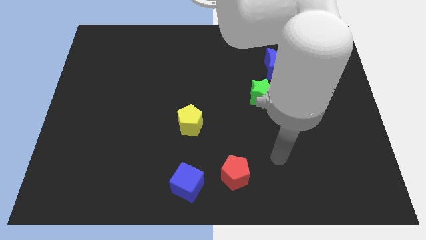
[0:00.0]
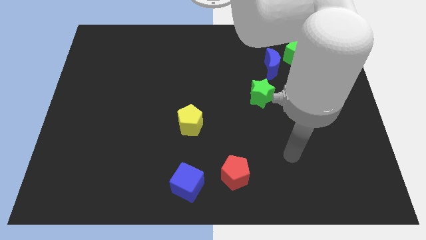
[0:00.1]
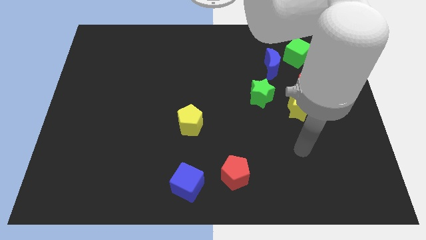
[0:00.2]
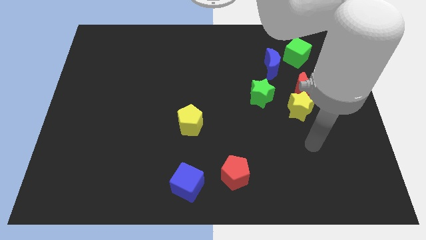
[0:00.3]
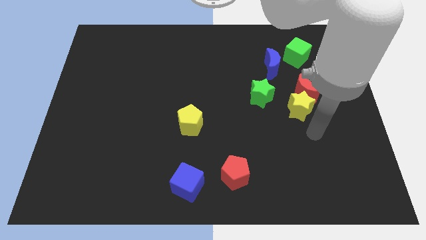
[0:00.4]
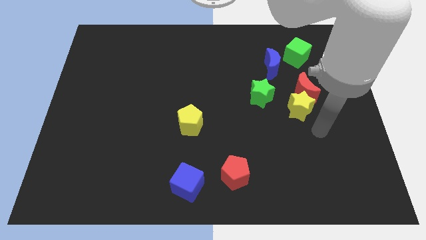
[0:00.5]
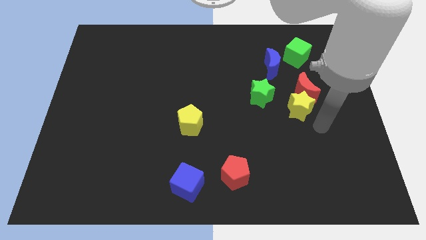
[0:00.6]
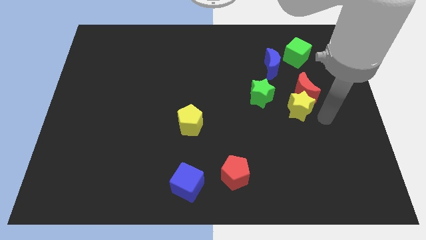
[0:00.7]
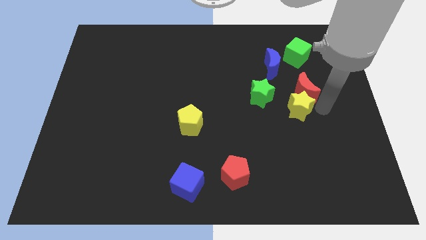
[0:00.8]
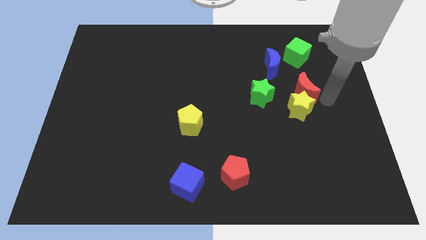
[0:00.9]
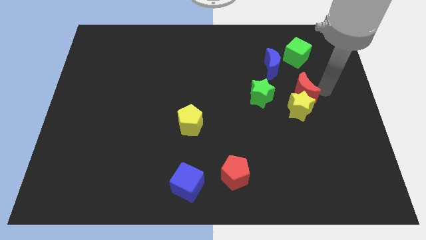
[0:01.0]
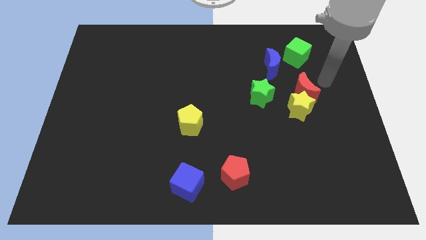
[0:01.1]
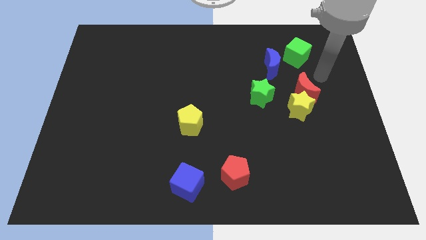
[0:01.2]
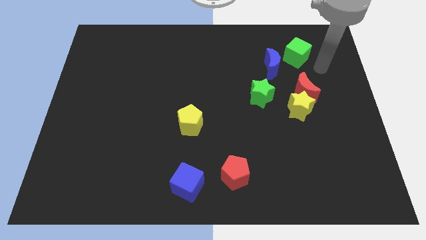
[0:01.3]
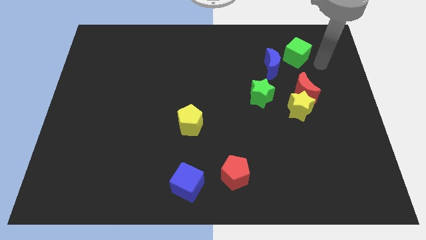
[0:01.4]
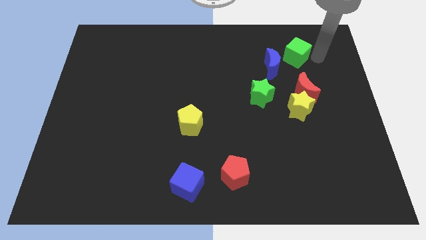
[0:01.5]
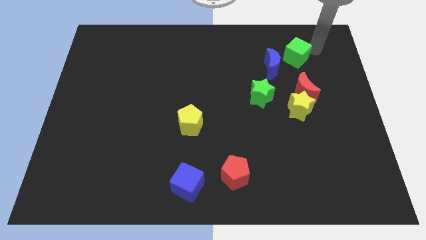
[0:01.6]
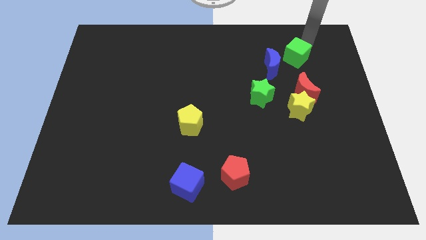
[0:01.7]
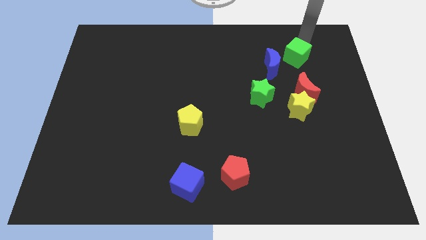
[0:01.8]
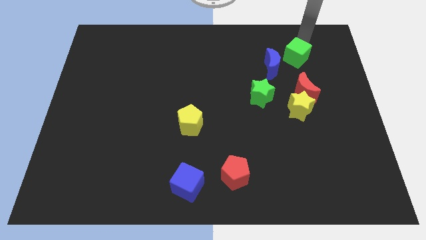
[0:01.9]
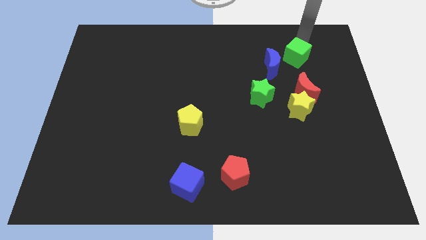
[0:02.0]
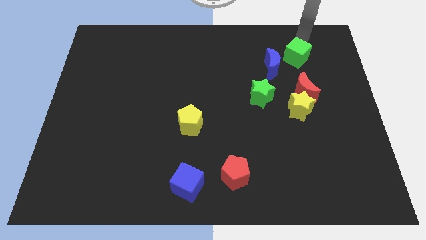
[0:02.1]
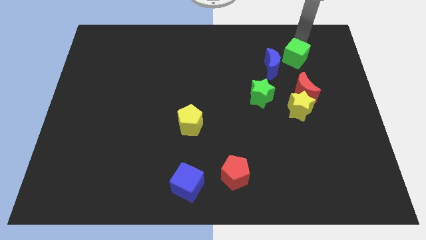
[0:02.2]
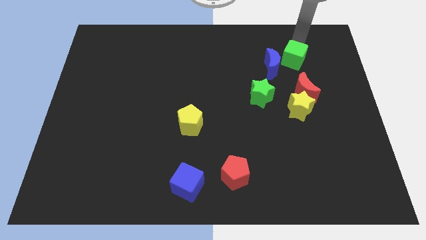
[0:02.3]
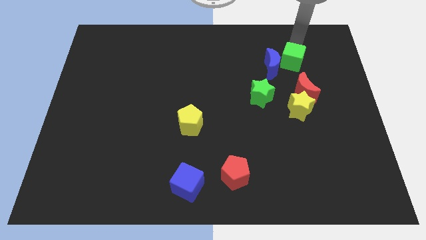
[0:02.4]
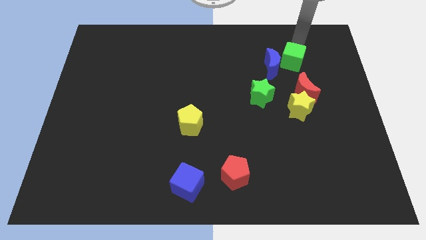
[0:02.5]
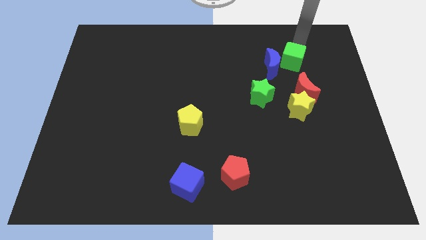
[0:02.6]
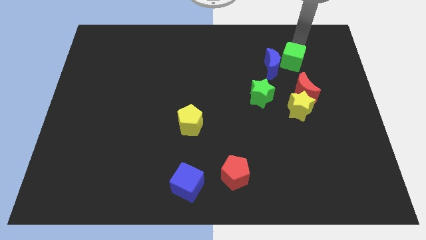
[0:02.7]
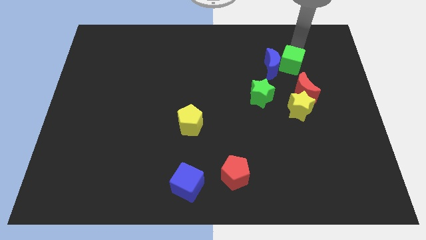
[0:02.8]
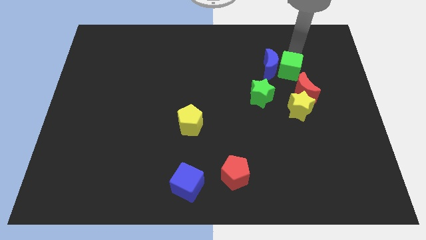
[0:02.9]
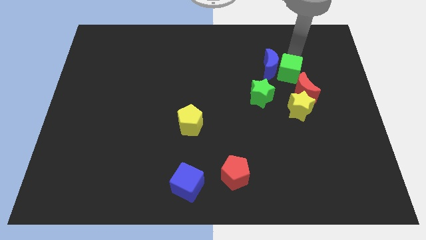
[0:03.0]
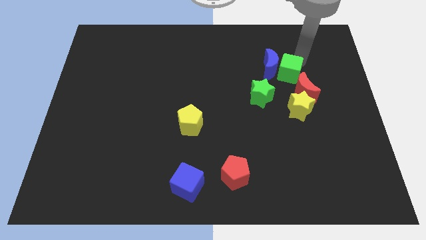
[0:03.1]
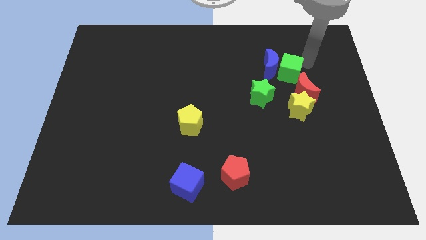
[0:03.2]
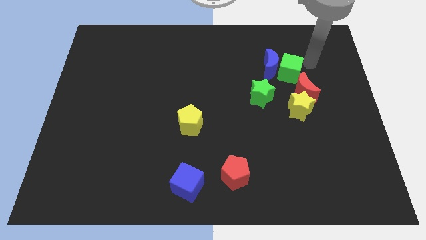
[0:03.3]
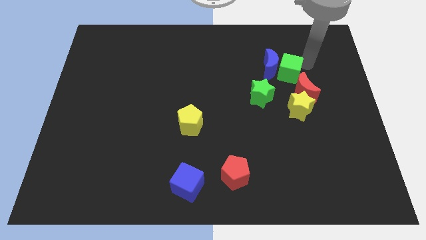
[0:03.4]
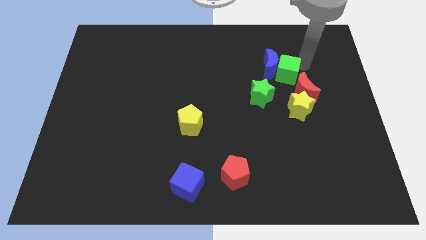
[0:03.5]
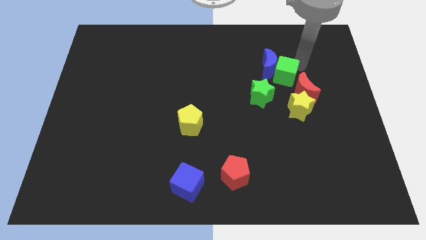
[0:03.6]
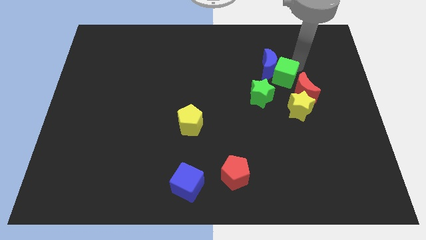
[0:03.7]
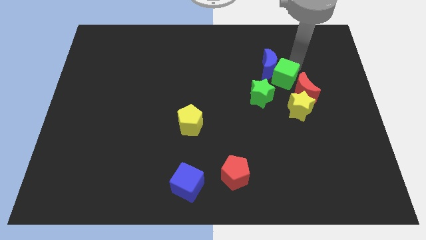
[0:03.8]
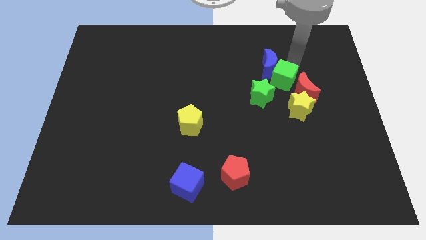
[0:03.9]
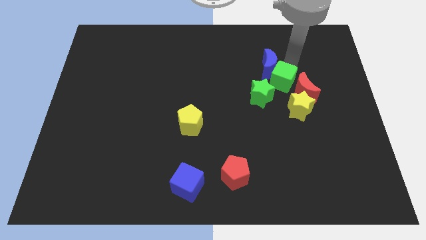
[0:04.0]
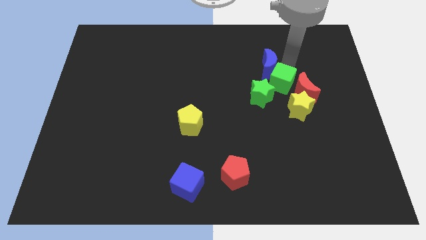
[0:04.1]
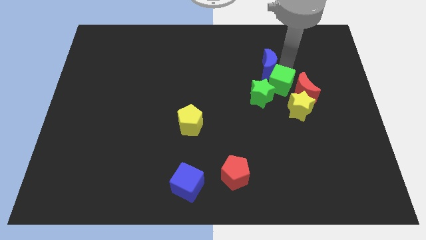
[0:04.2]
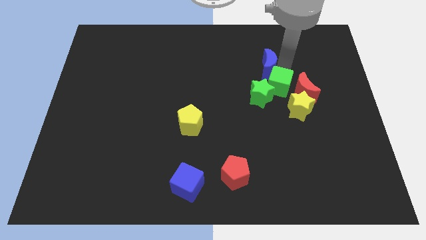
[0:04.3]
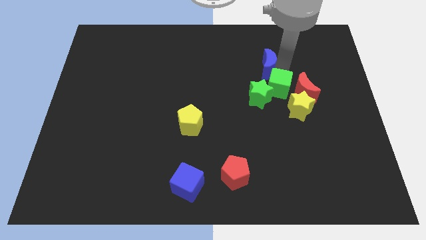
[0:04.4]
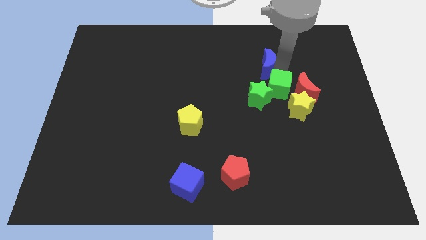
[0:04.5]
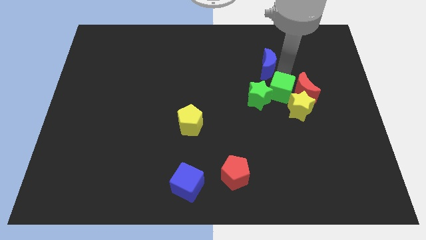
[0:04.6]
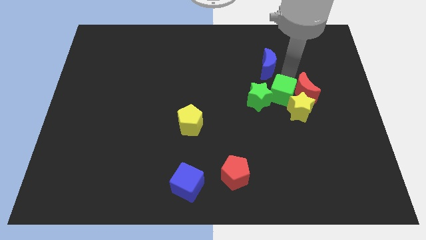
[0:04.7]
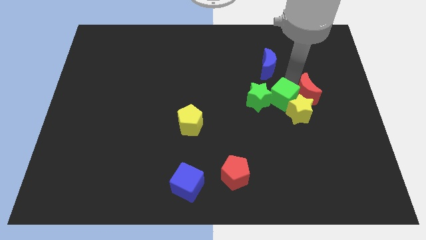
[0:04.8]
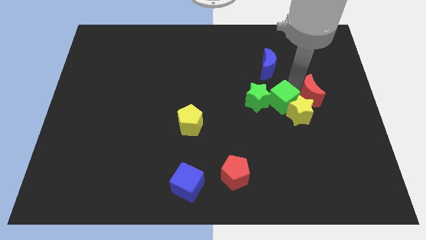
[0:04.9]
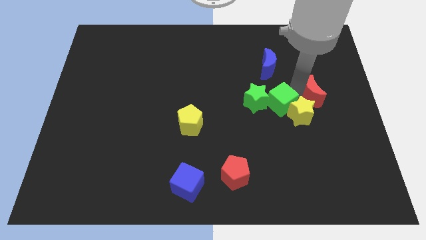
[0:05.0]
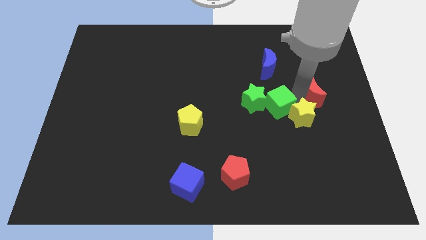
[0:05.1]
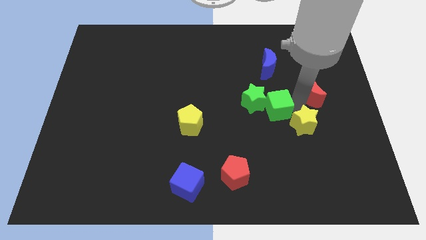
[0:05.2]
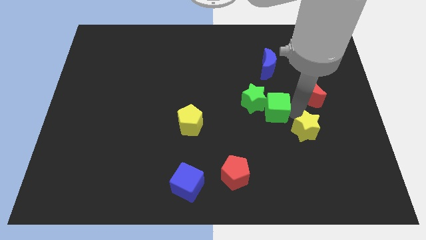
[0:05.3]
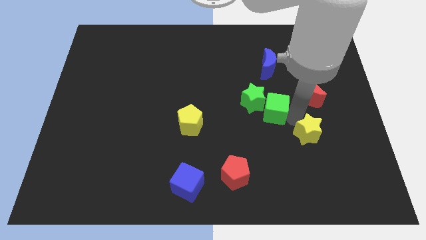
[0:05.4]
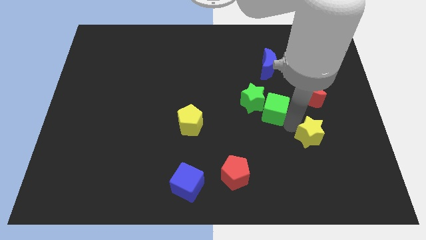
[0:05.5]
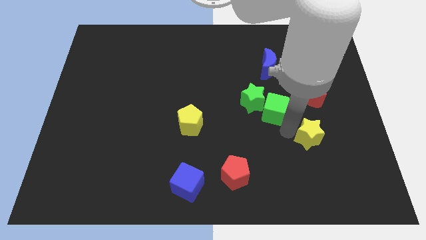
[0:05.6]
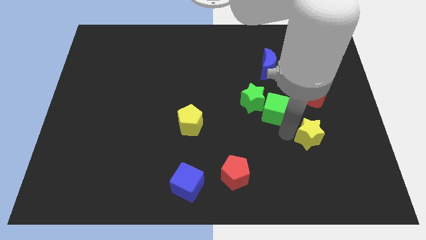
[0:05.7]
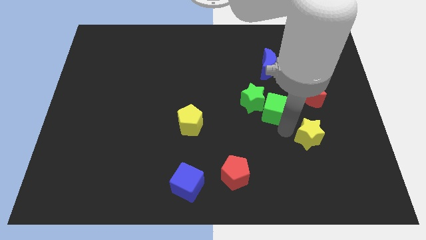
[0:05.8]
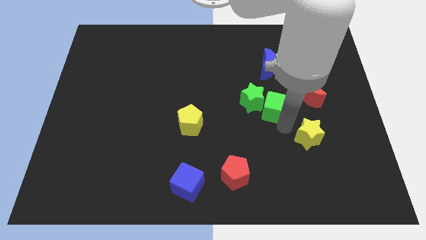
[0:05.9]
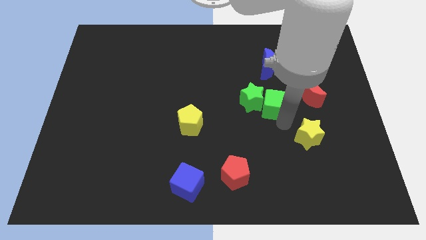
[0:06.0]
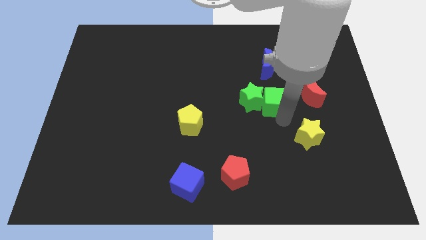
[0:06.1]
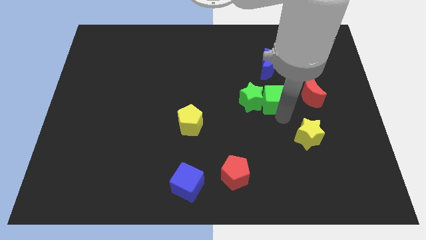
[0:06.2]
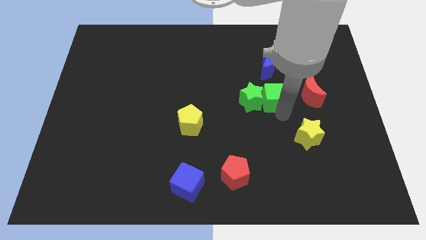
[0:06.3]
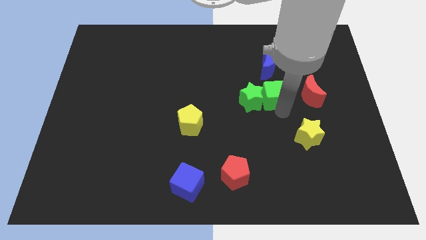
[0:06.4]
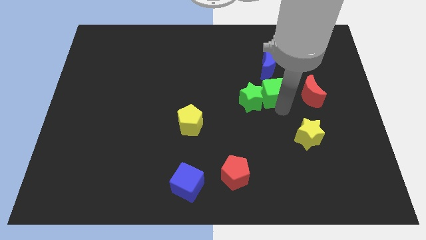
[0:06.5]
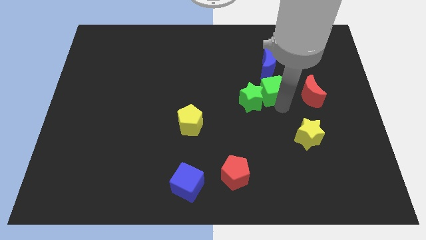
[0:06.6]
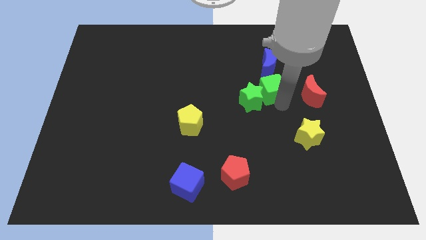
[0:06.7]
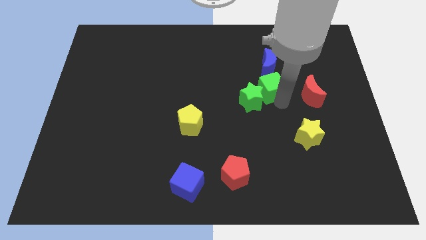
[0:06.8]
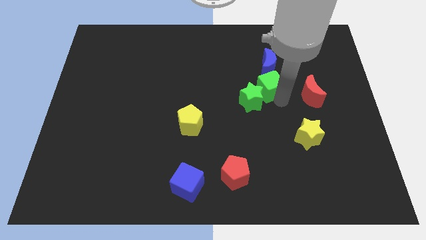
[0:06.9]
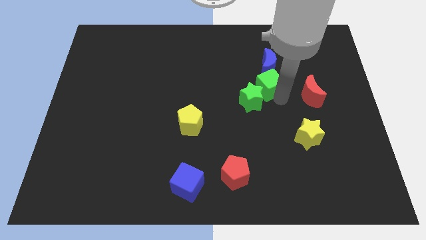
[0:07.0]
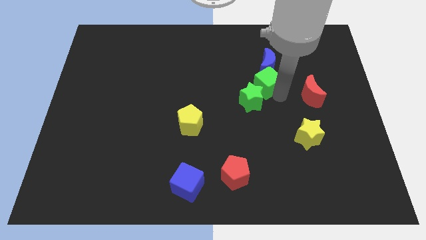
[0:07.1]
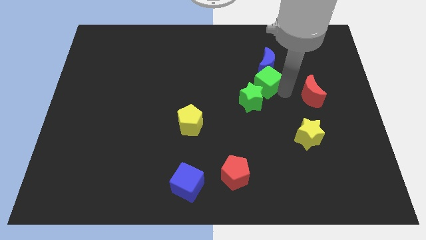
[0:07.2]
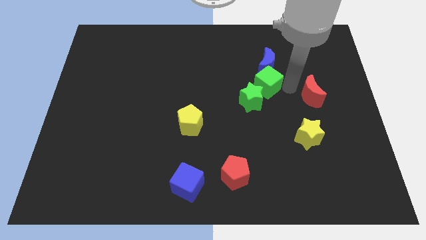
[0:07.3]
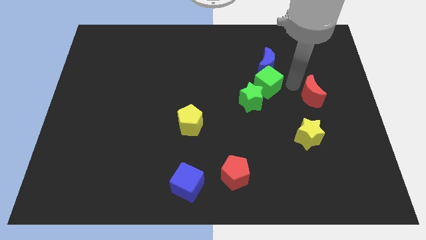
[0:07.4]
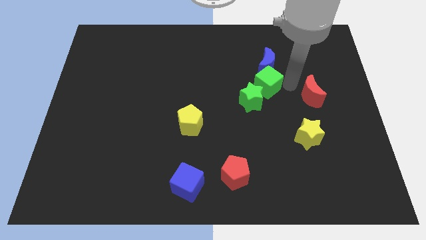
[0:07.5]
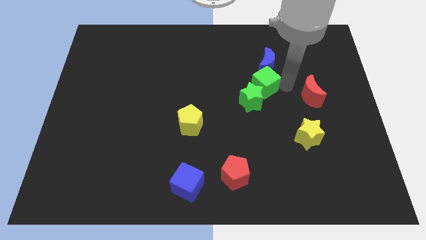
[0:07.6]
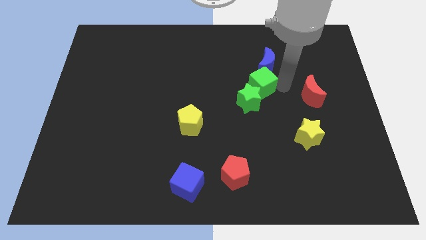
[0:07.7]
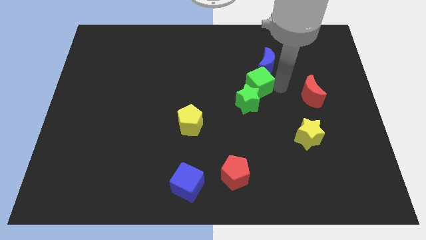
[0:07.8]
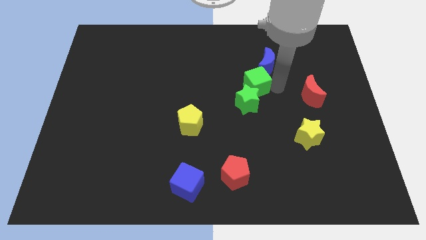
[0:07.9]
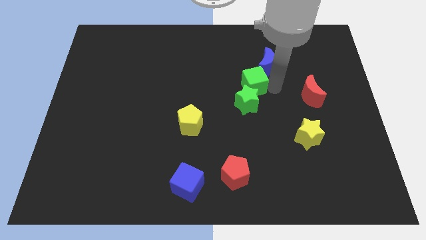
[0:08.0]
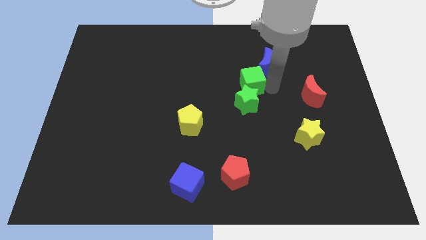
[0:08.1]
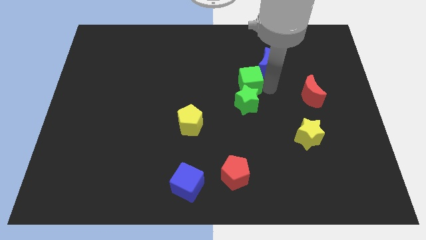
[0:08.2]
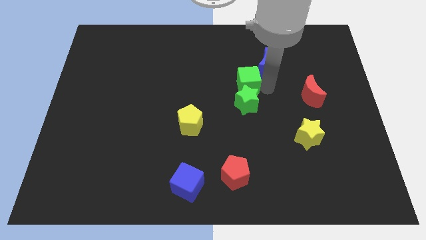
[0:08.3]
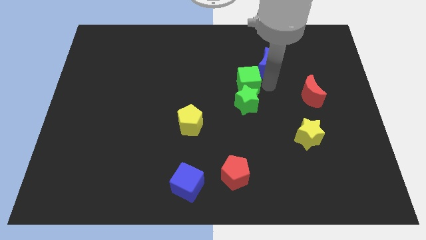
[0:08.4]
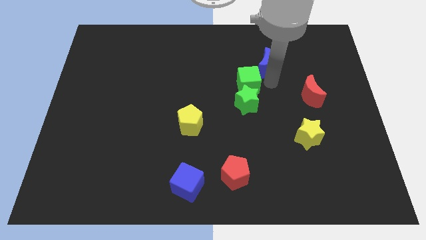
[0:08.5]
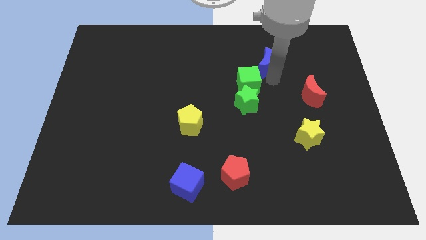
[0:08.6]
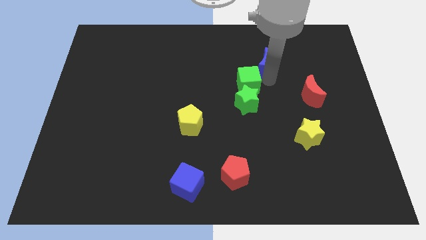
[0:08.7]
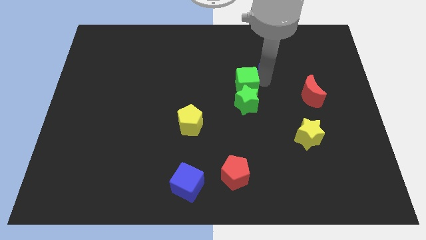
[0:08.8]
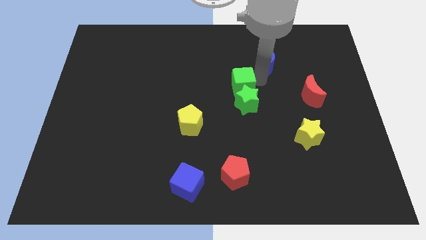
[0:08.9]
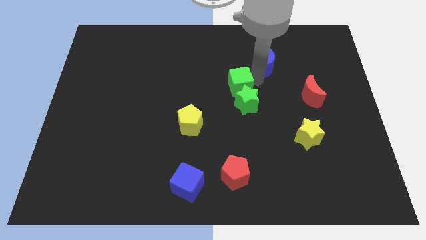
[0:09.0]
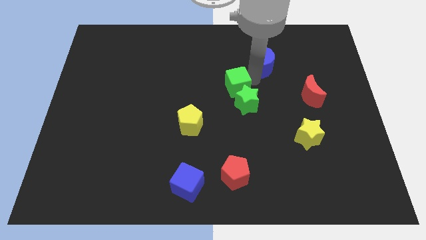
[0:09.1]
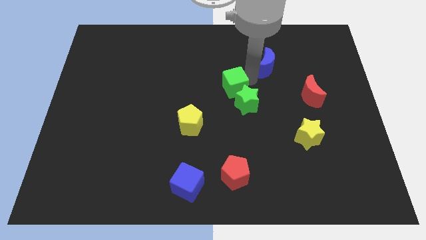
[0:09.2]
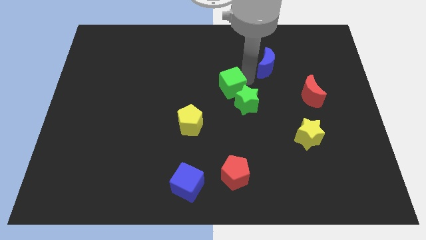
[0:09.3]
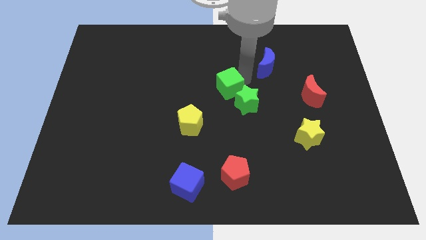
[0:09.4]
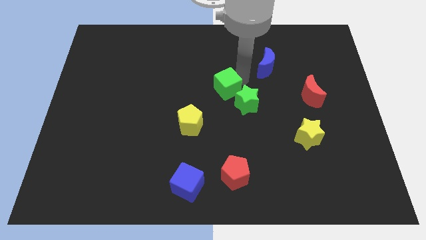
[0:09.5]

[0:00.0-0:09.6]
push the green cube diagonally down and to the left
